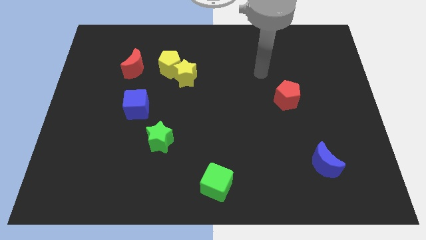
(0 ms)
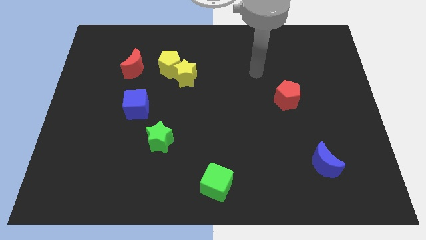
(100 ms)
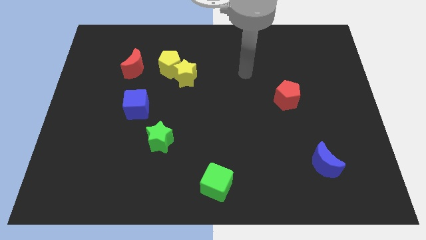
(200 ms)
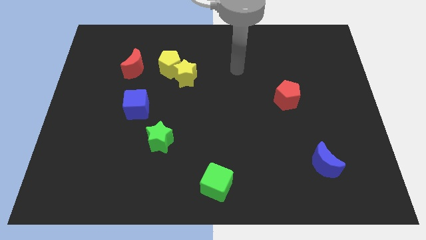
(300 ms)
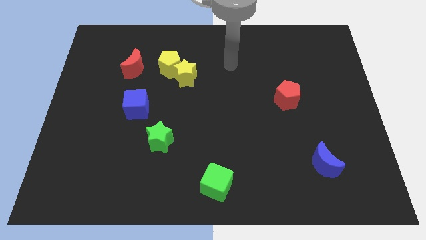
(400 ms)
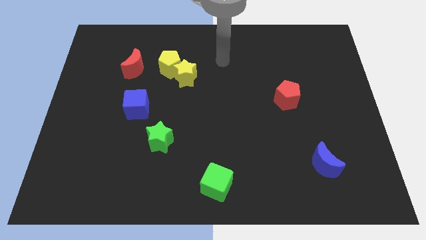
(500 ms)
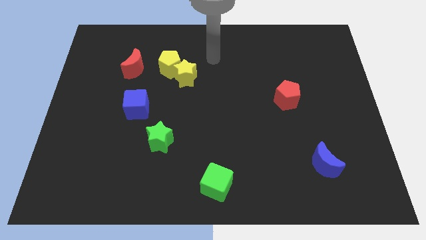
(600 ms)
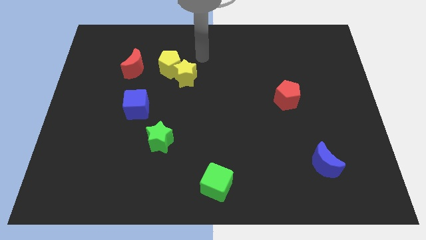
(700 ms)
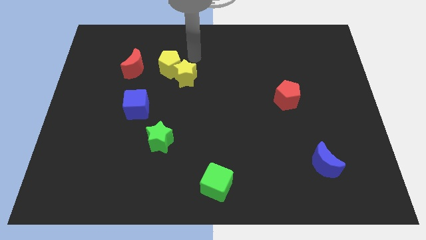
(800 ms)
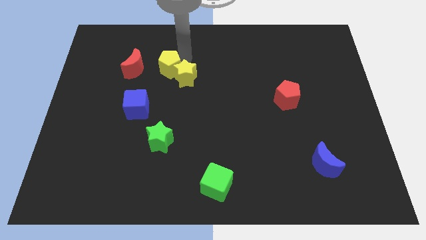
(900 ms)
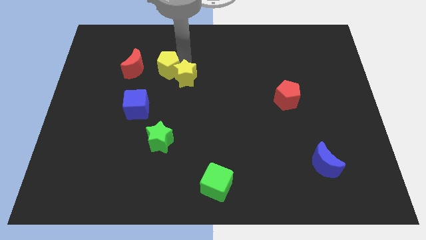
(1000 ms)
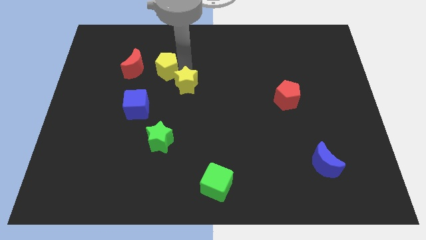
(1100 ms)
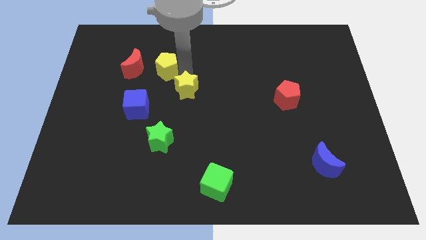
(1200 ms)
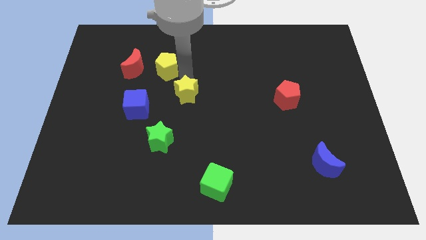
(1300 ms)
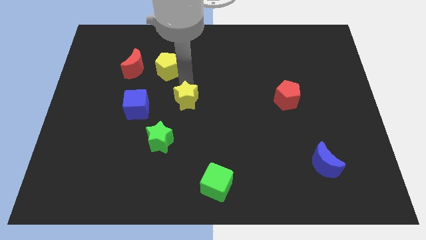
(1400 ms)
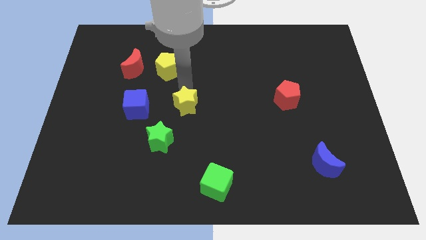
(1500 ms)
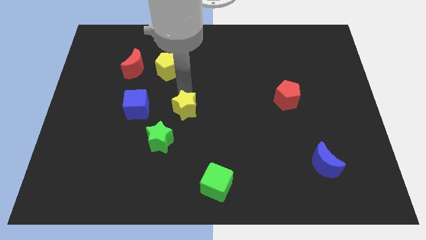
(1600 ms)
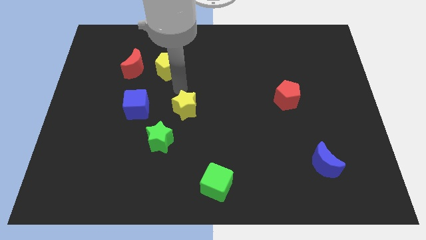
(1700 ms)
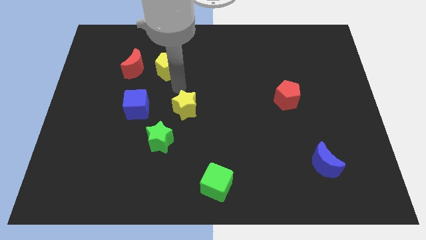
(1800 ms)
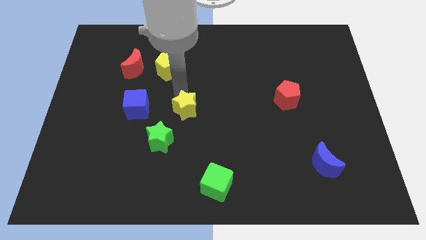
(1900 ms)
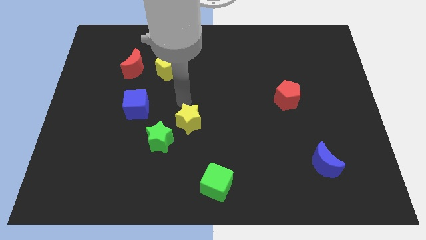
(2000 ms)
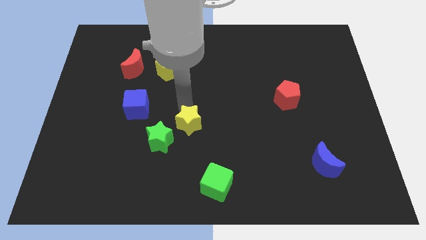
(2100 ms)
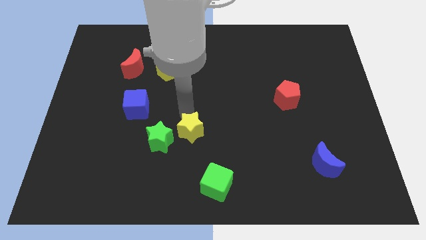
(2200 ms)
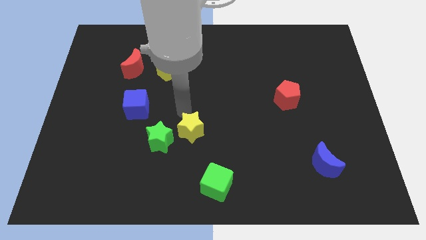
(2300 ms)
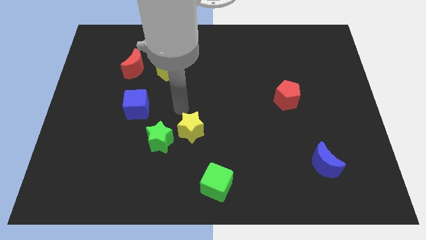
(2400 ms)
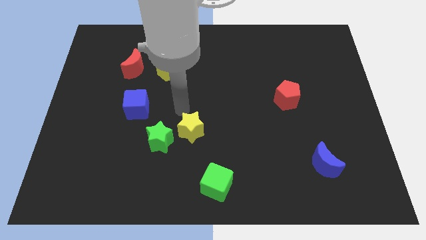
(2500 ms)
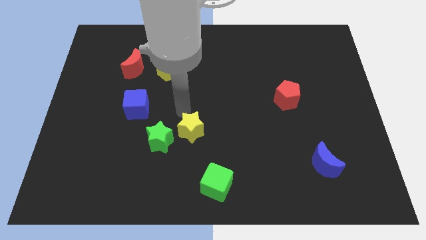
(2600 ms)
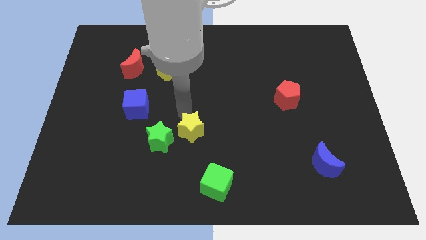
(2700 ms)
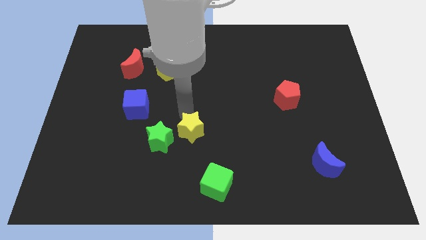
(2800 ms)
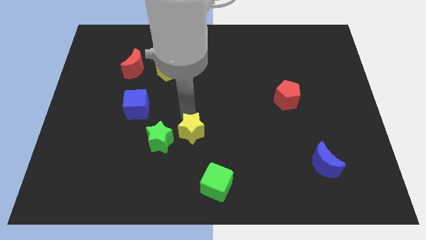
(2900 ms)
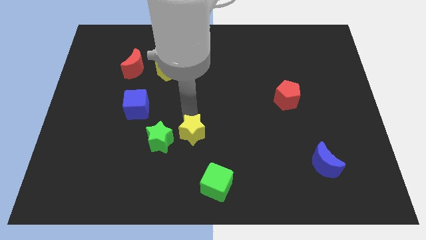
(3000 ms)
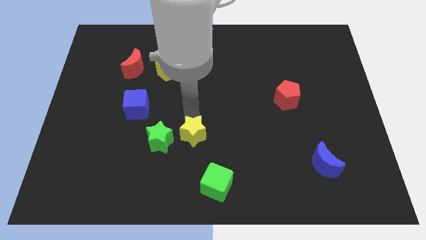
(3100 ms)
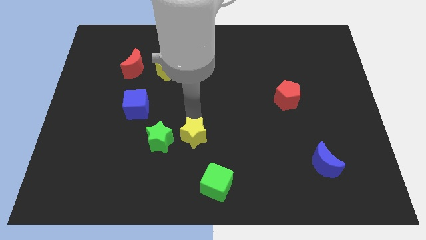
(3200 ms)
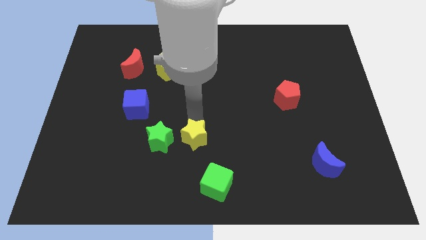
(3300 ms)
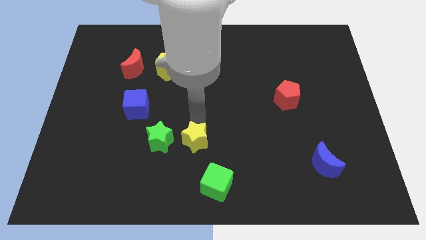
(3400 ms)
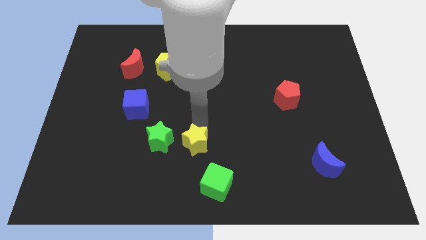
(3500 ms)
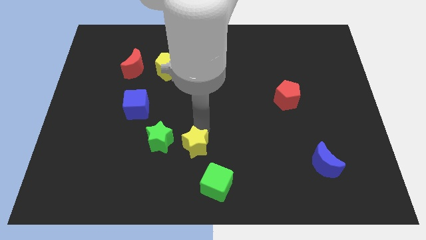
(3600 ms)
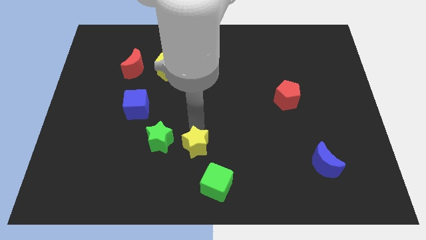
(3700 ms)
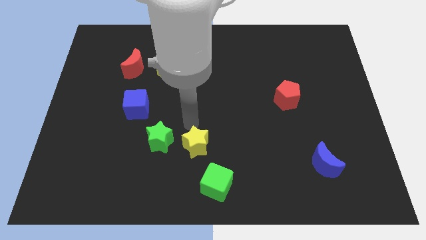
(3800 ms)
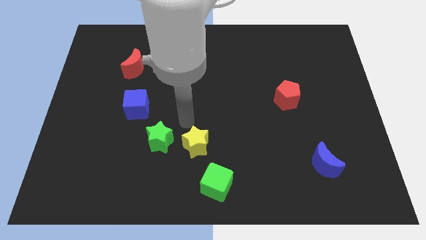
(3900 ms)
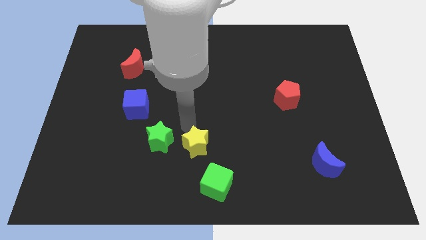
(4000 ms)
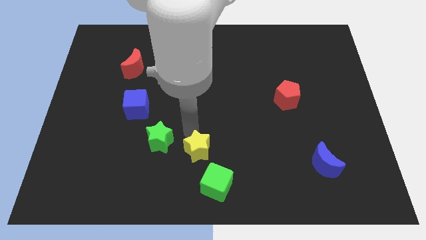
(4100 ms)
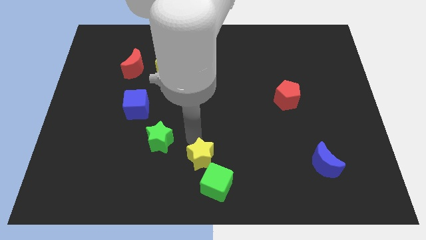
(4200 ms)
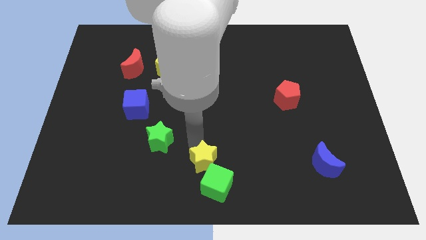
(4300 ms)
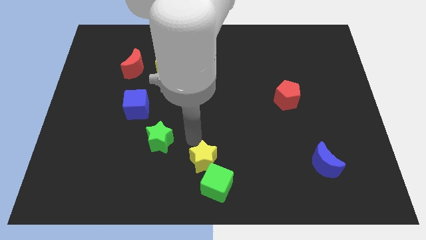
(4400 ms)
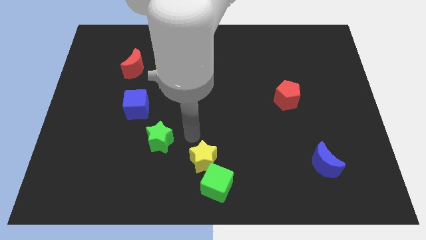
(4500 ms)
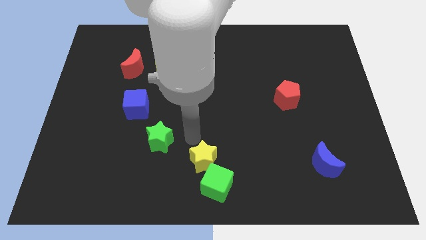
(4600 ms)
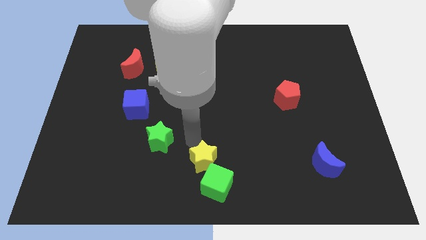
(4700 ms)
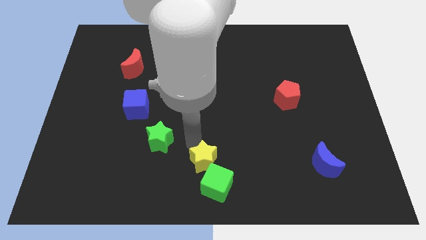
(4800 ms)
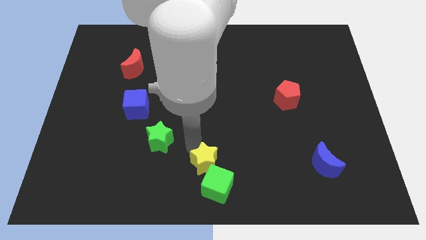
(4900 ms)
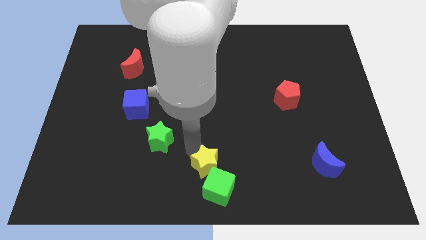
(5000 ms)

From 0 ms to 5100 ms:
put the yellow star towards the green cube

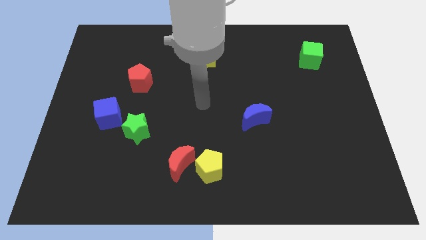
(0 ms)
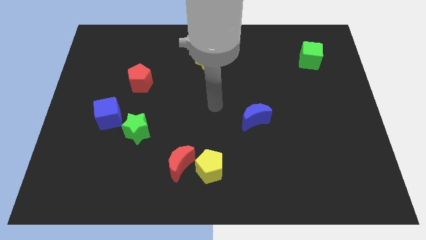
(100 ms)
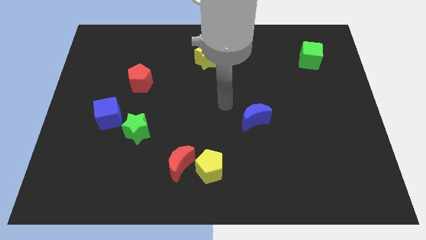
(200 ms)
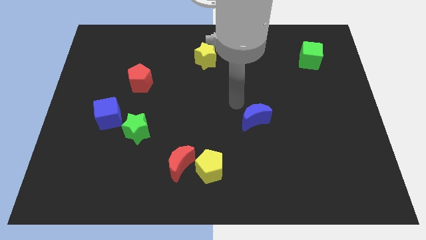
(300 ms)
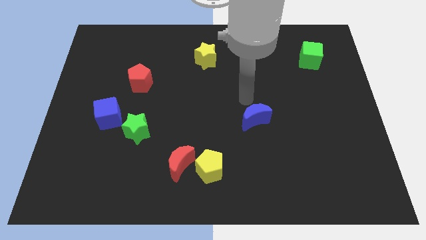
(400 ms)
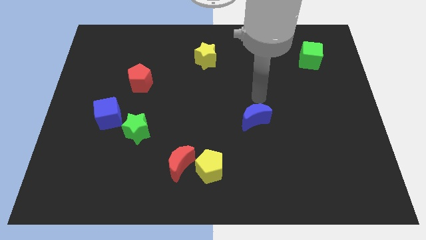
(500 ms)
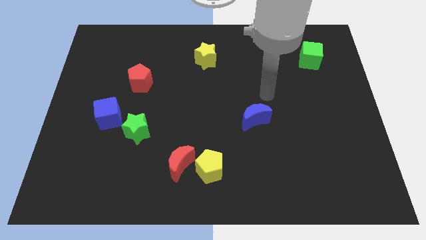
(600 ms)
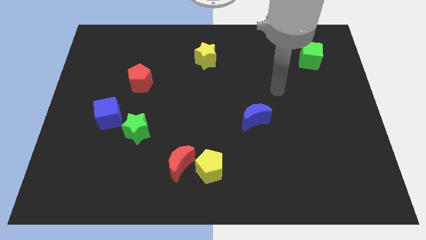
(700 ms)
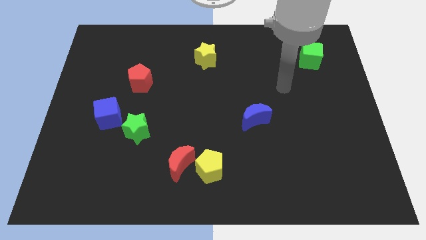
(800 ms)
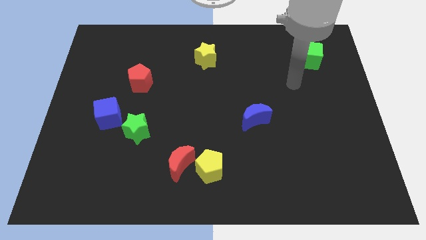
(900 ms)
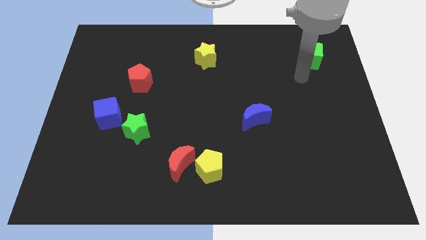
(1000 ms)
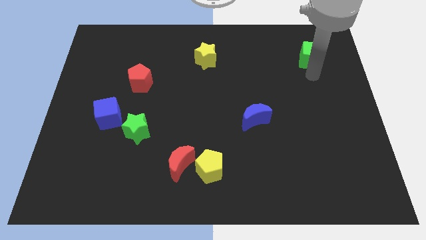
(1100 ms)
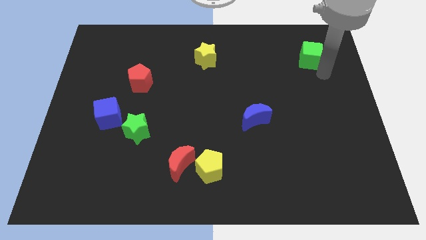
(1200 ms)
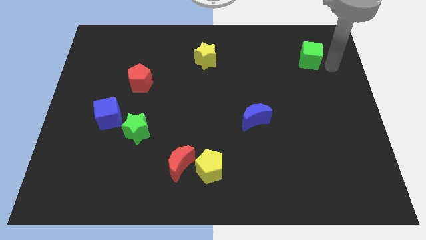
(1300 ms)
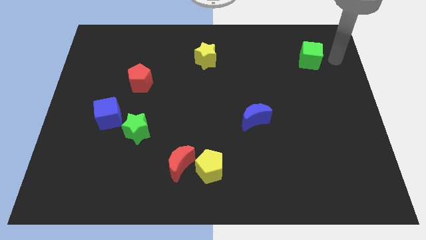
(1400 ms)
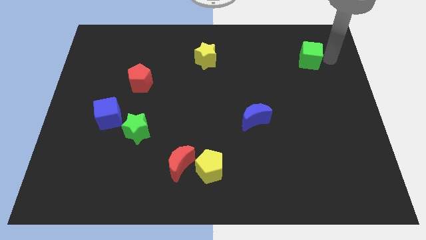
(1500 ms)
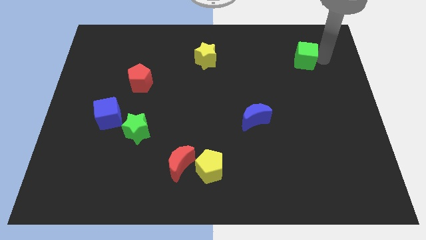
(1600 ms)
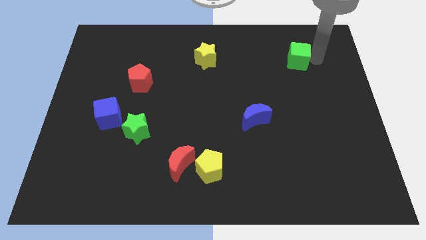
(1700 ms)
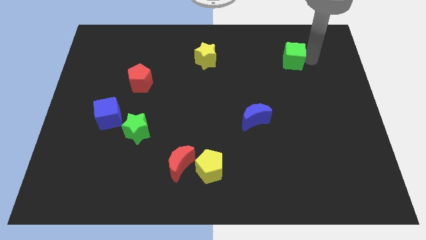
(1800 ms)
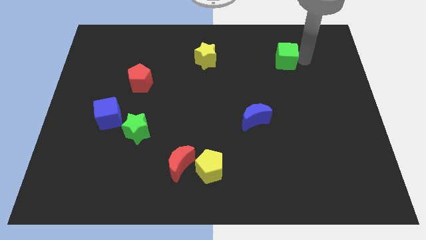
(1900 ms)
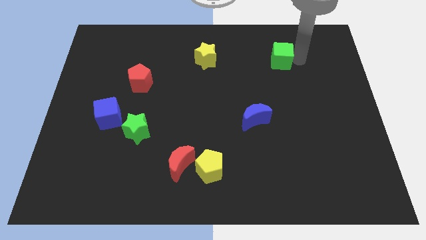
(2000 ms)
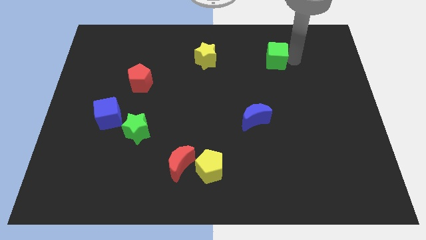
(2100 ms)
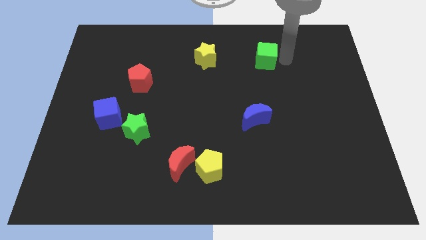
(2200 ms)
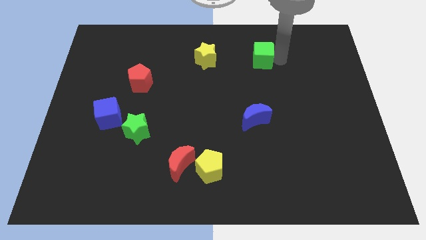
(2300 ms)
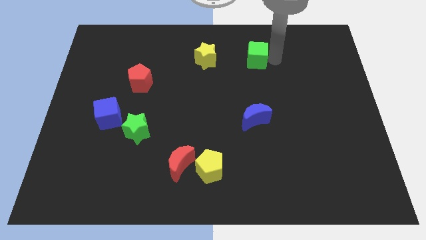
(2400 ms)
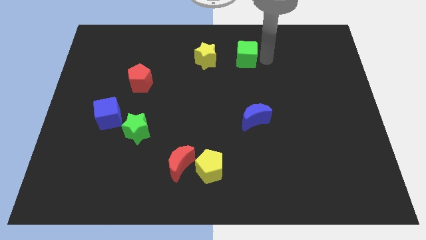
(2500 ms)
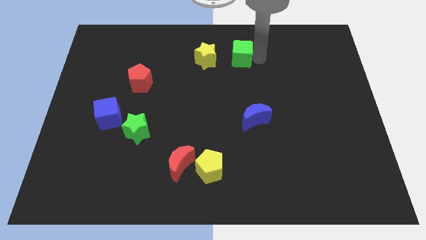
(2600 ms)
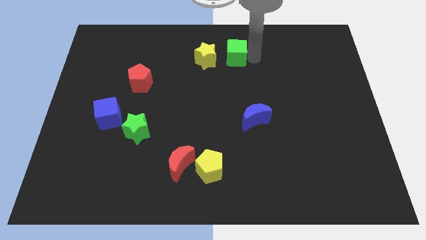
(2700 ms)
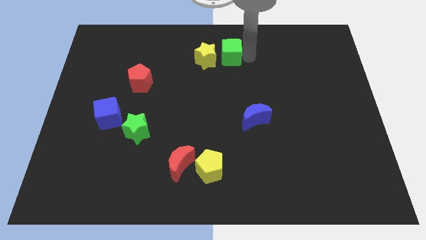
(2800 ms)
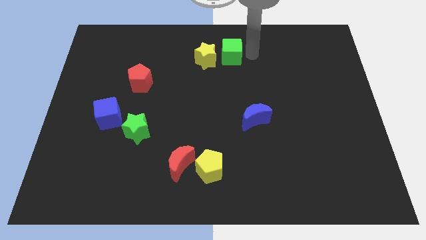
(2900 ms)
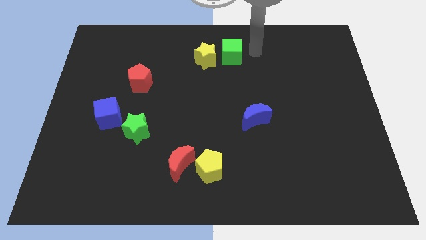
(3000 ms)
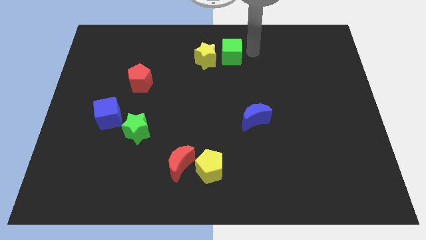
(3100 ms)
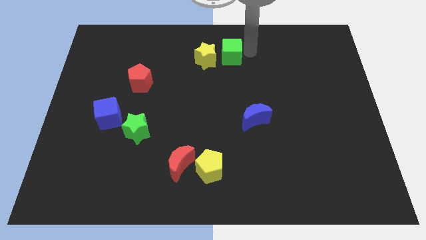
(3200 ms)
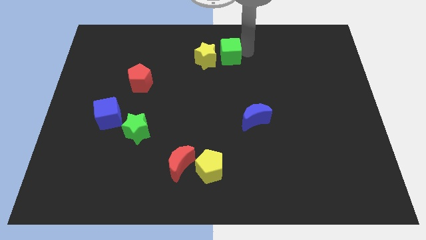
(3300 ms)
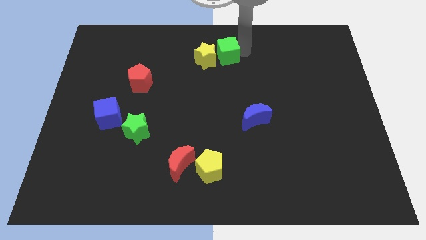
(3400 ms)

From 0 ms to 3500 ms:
put the green cube towards the yellow star
